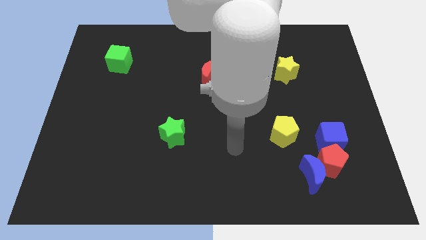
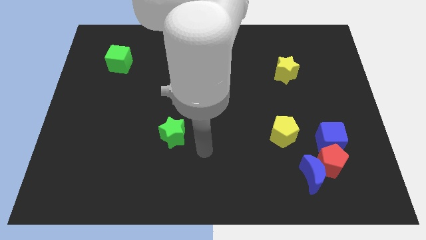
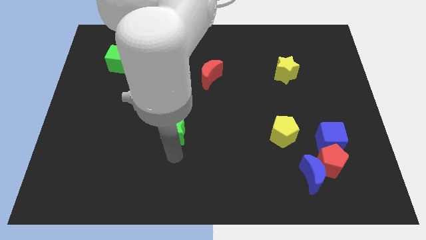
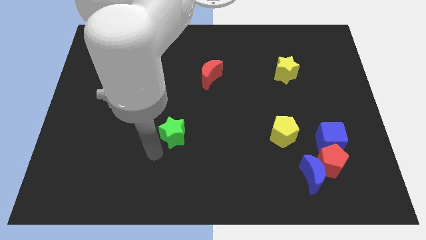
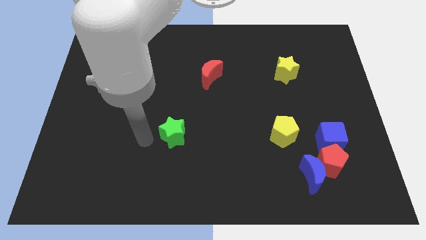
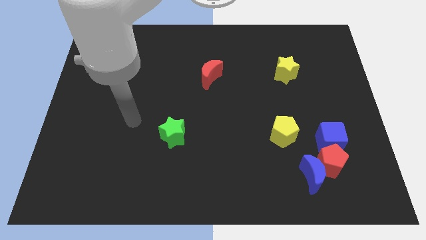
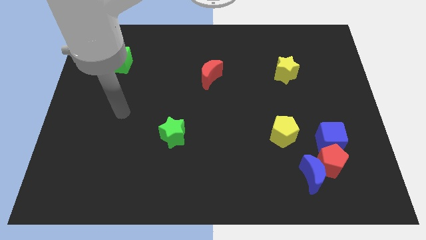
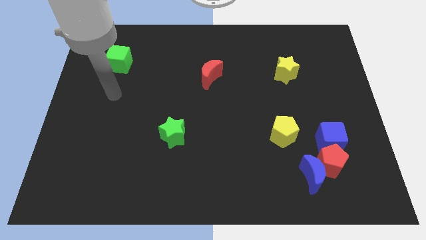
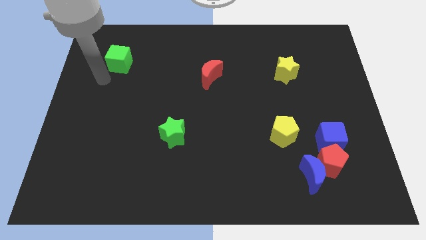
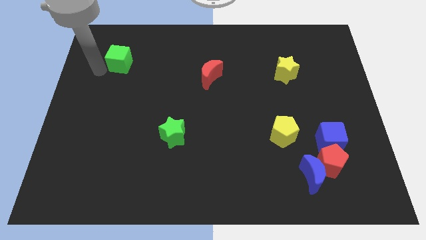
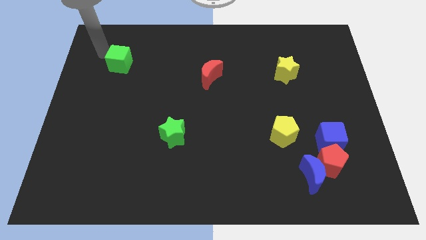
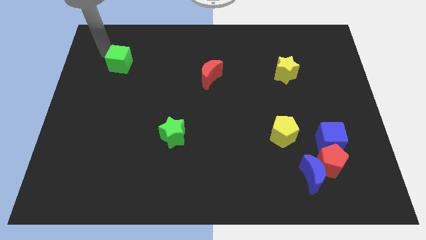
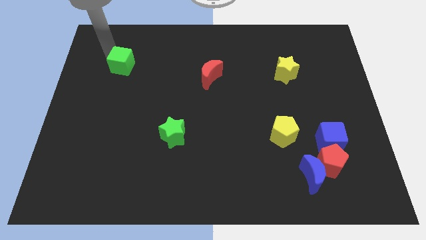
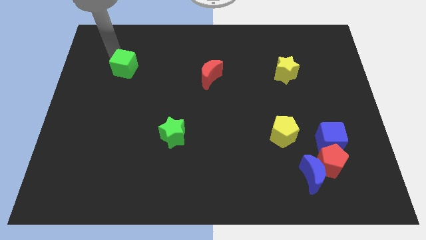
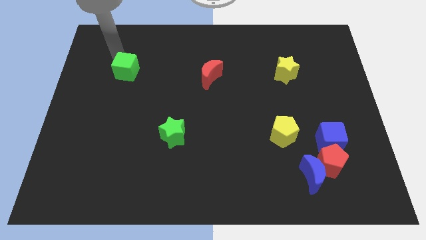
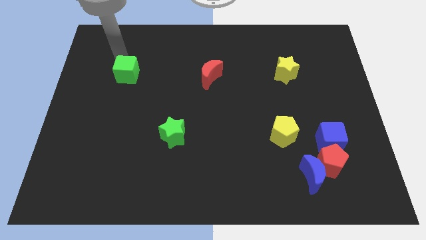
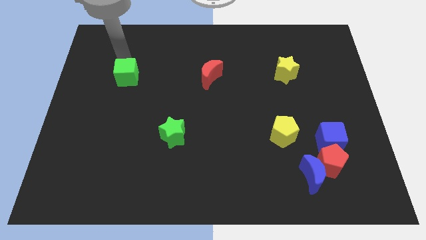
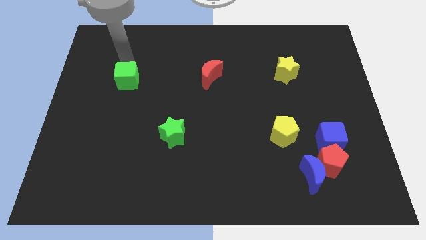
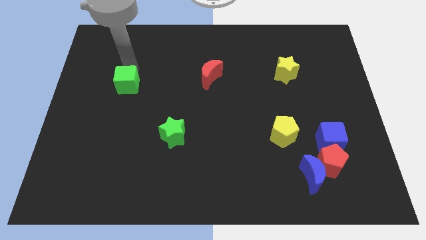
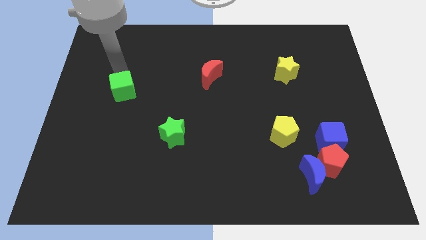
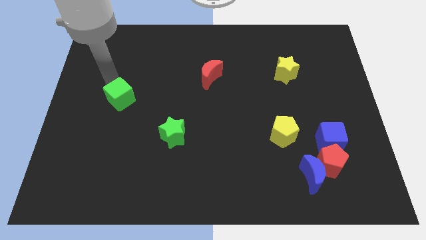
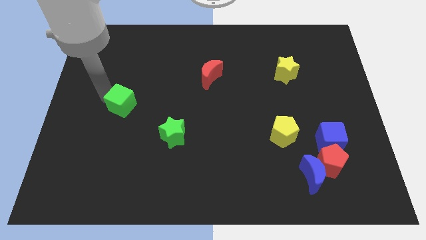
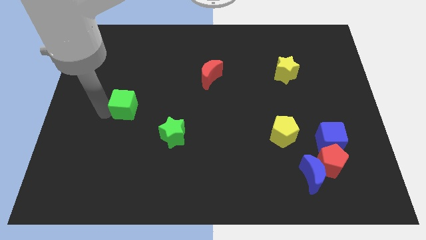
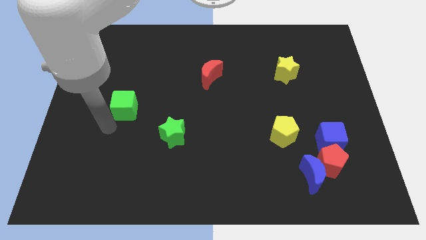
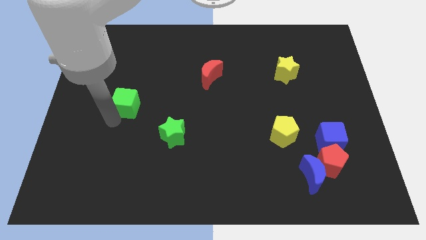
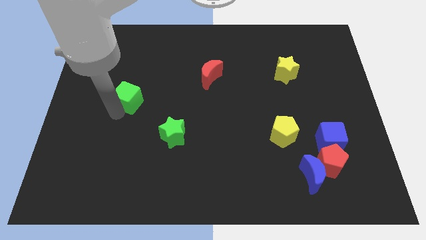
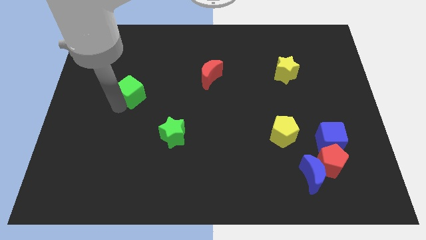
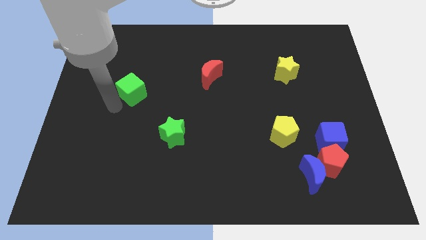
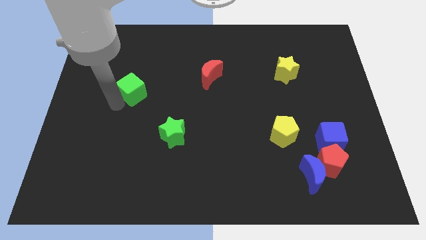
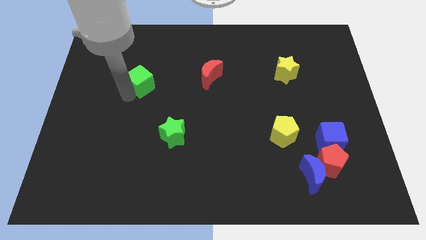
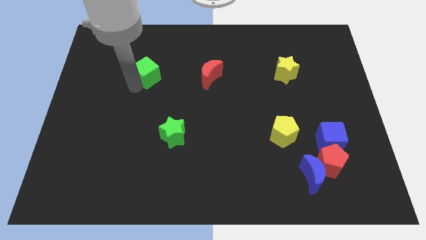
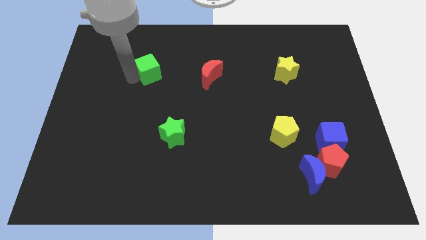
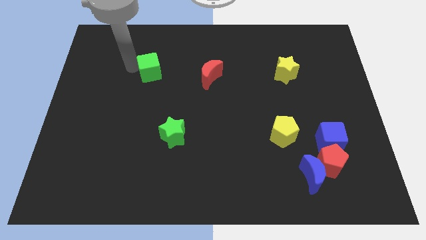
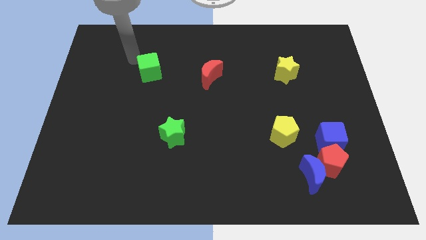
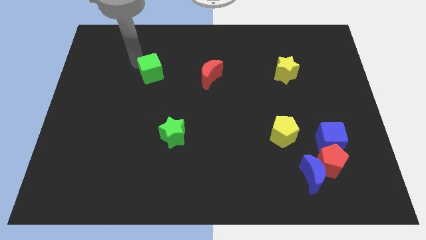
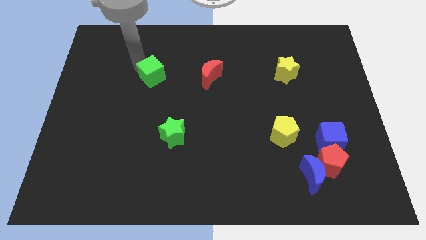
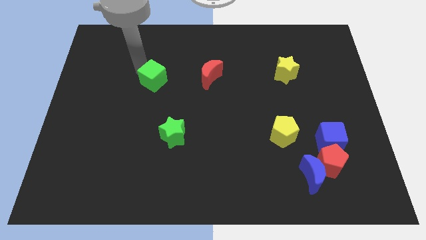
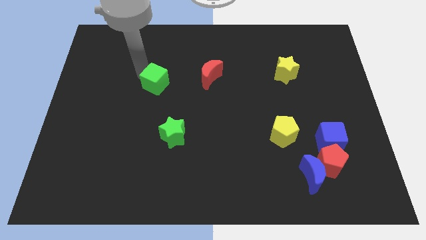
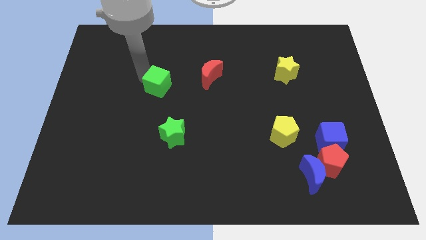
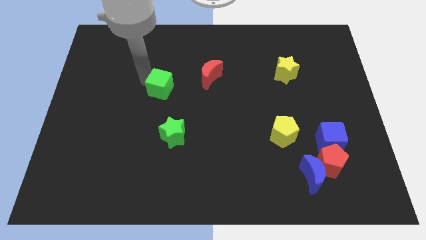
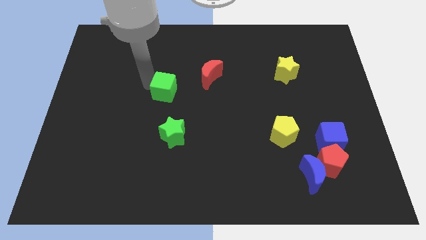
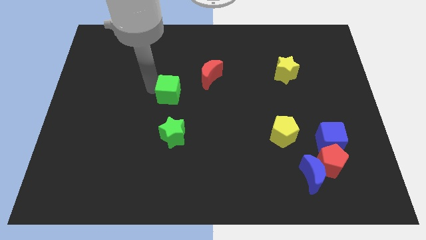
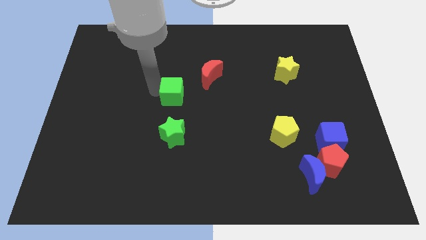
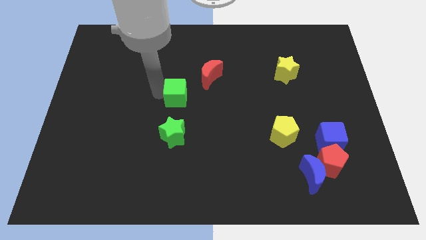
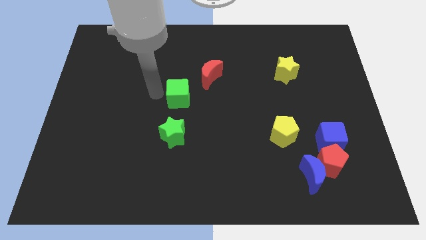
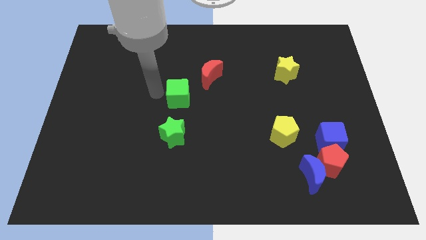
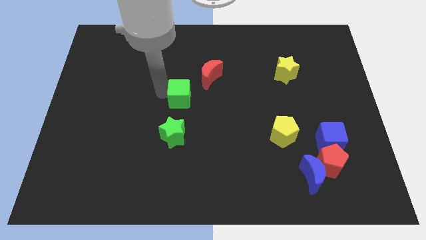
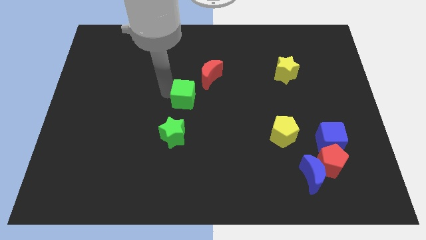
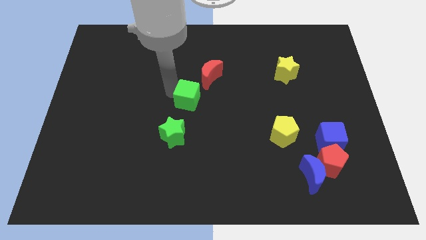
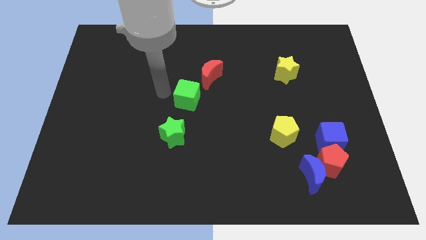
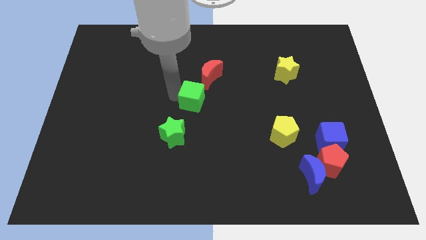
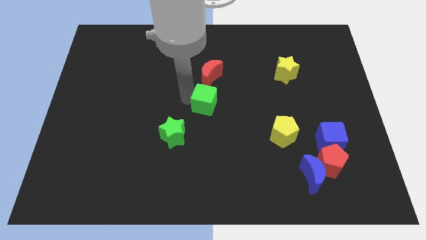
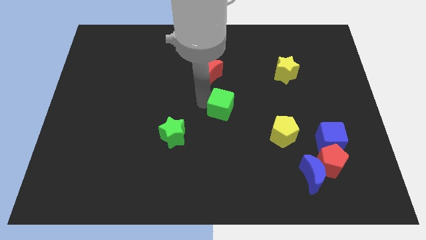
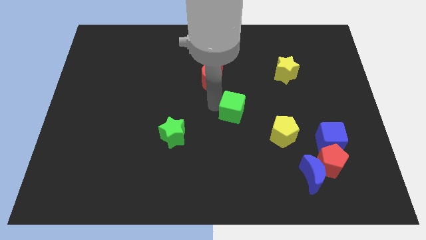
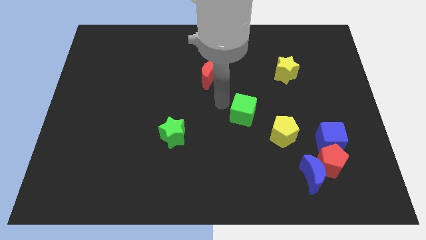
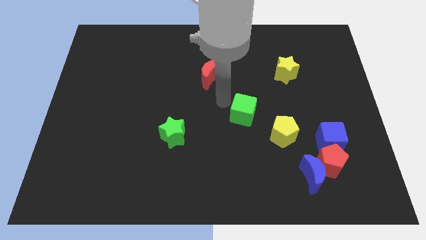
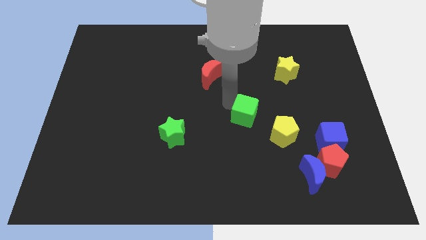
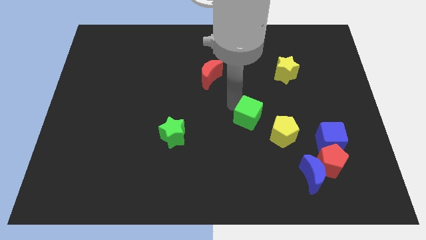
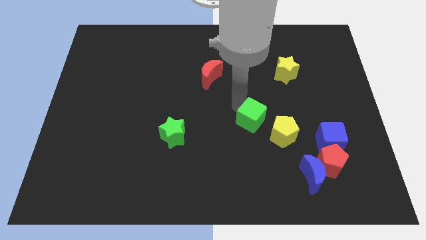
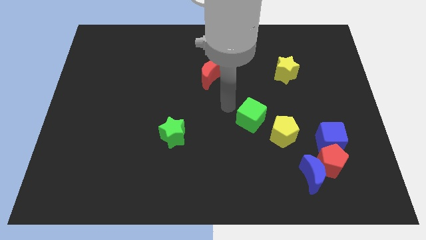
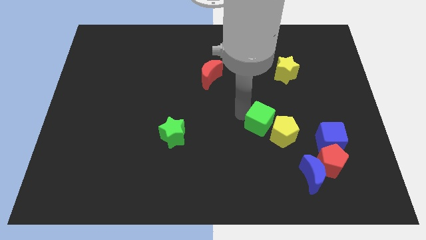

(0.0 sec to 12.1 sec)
push the green cube close to the yellow pentagon

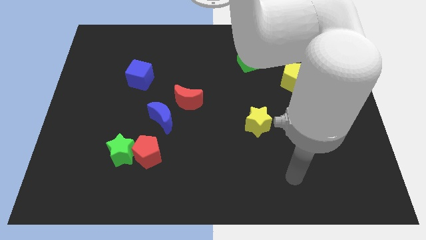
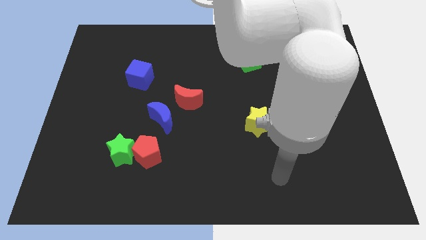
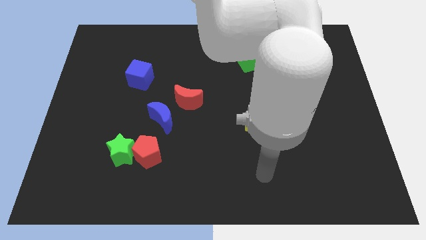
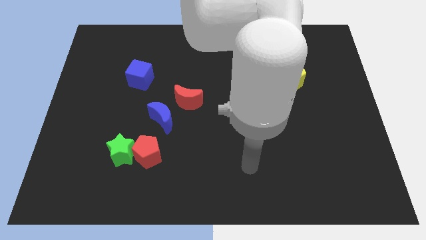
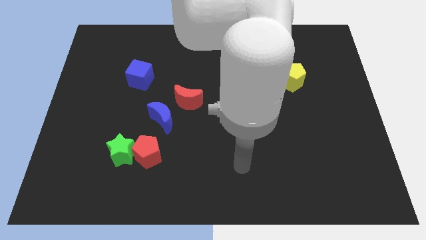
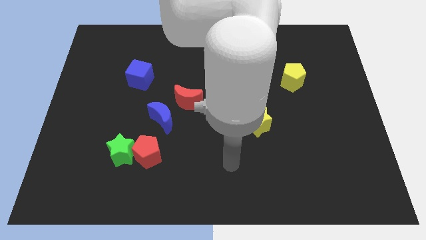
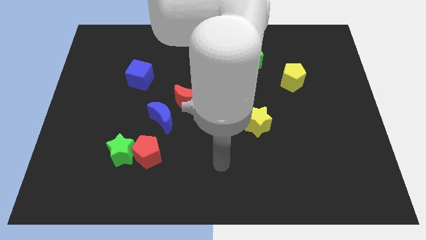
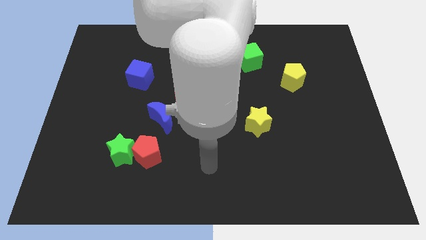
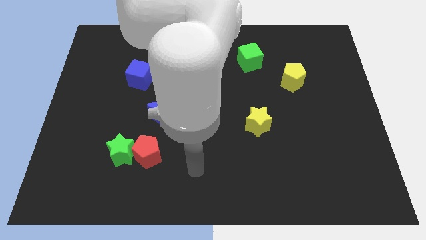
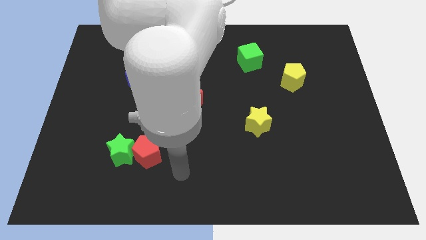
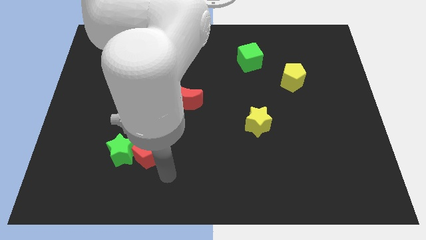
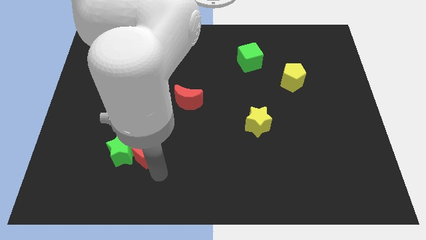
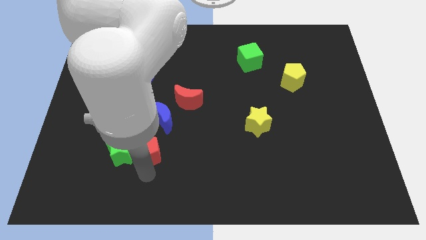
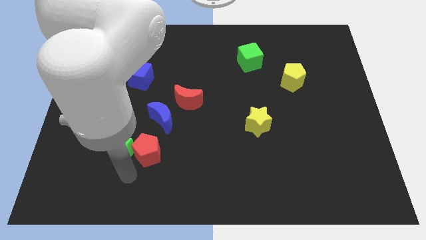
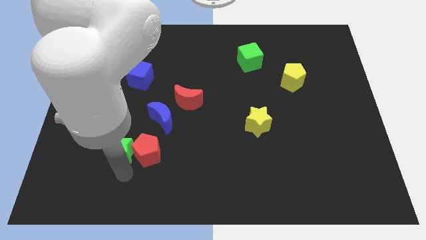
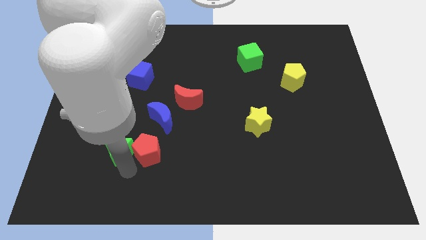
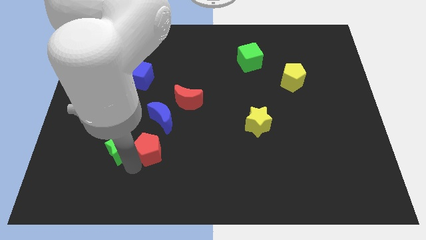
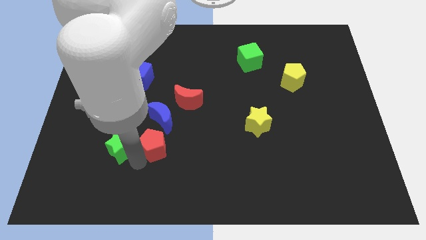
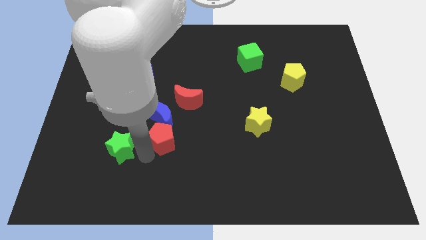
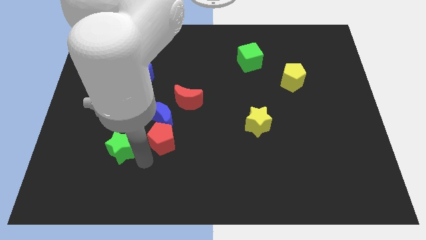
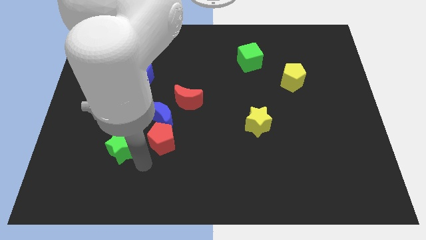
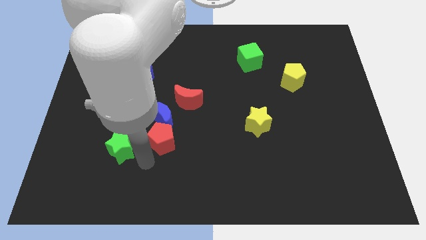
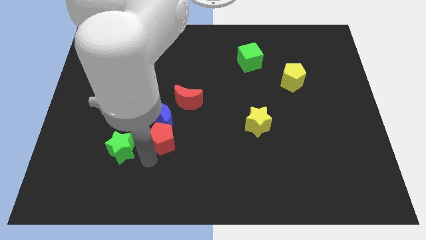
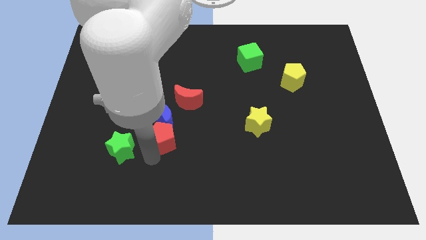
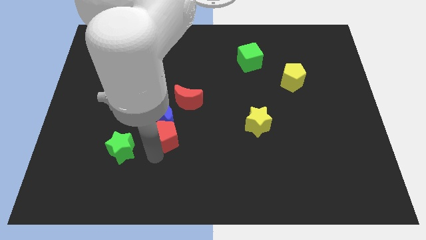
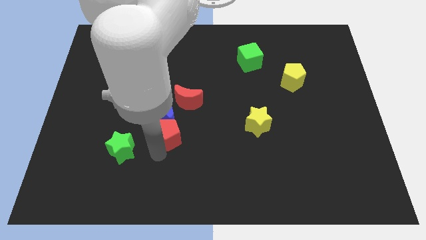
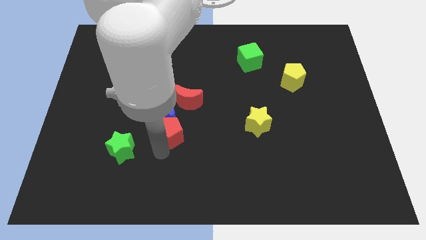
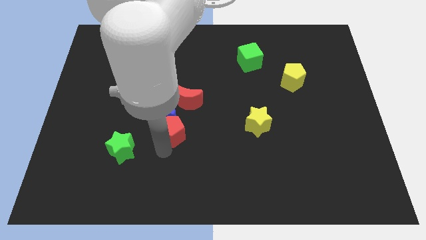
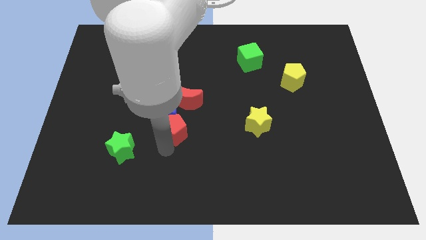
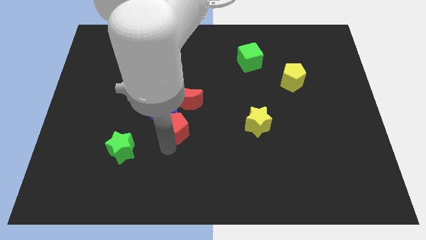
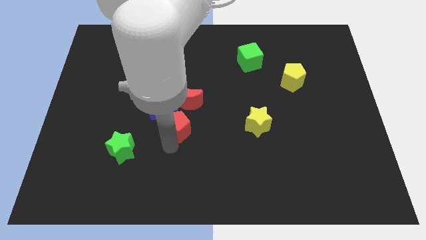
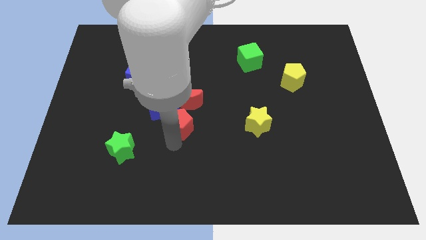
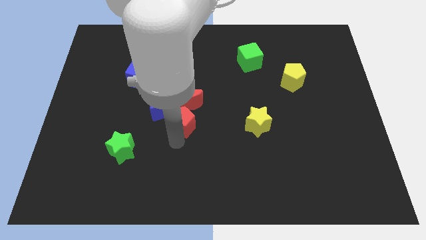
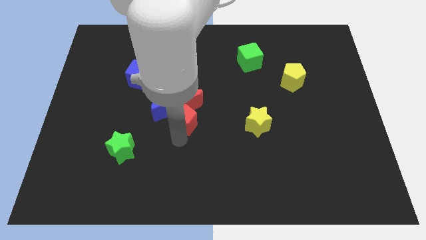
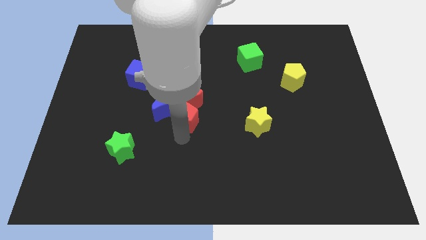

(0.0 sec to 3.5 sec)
put the red pentagon towards the red moon
